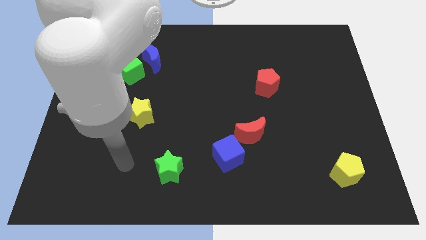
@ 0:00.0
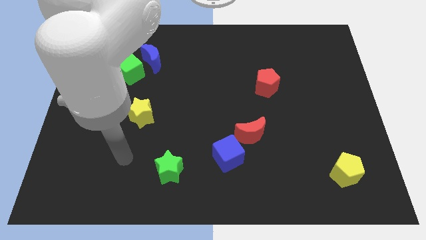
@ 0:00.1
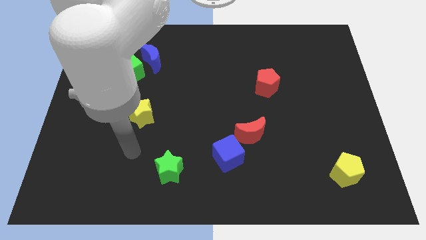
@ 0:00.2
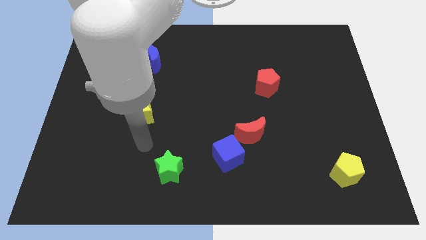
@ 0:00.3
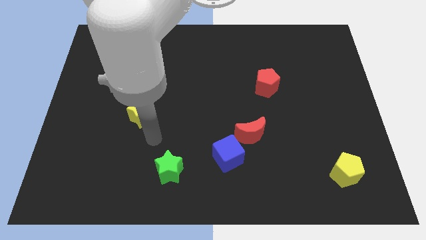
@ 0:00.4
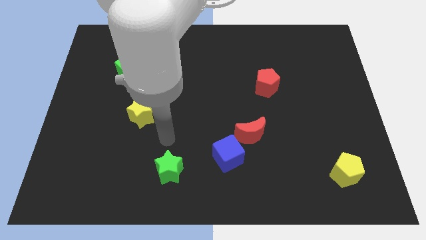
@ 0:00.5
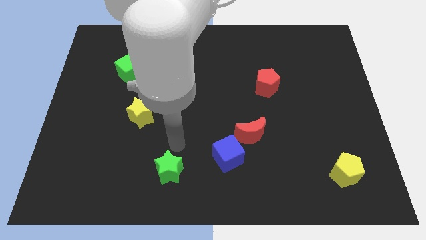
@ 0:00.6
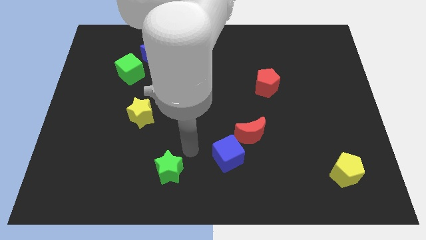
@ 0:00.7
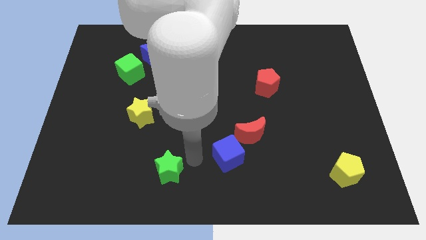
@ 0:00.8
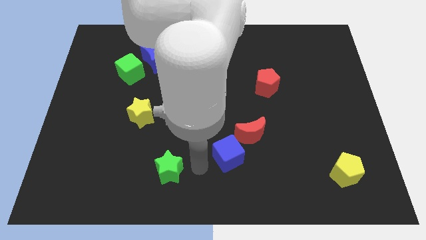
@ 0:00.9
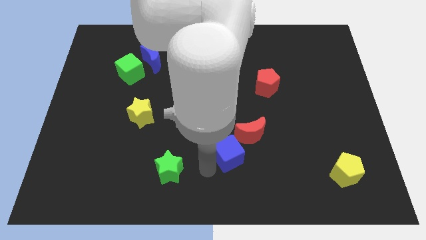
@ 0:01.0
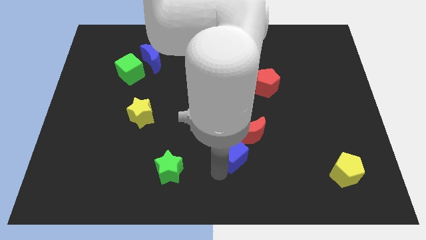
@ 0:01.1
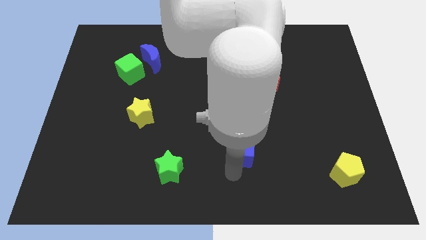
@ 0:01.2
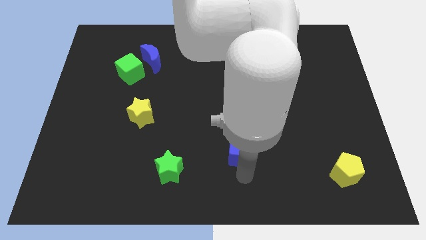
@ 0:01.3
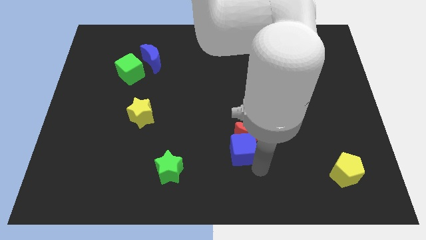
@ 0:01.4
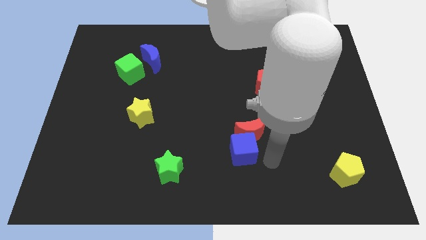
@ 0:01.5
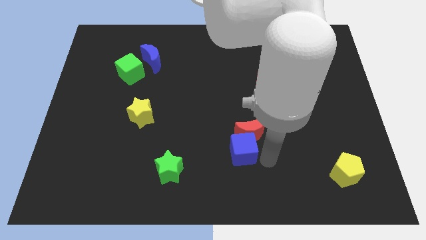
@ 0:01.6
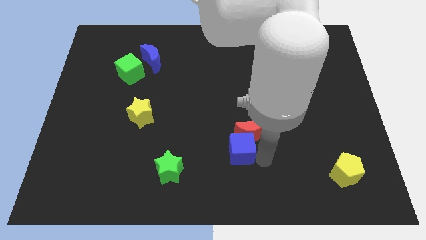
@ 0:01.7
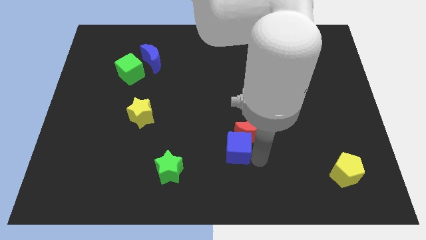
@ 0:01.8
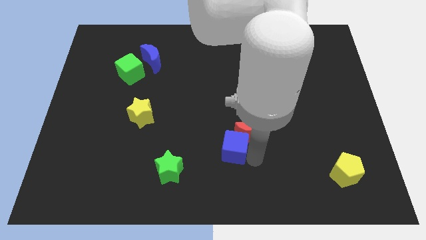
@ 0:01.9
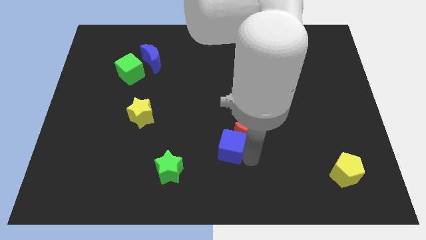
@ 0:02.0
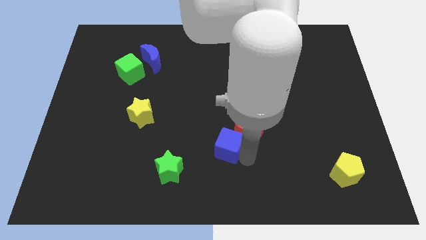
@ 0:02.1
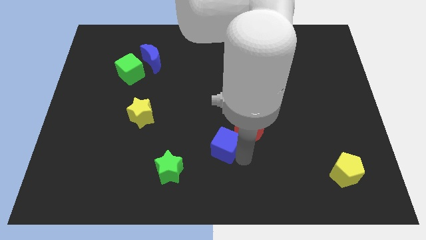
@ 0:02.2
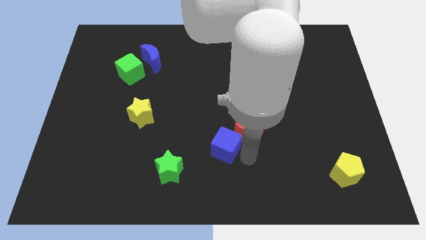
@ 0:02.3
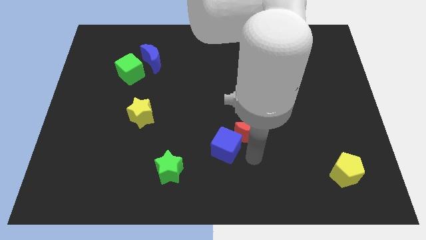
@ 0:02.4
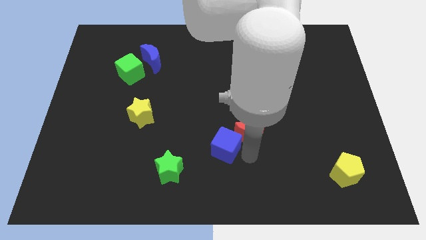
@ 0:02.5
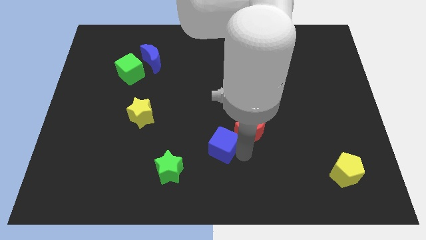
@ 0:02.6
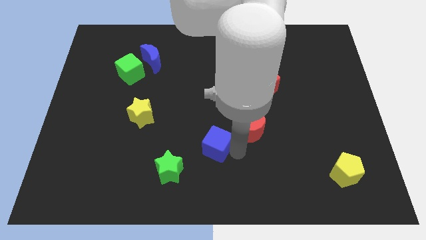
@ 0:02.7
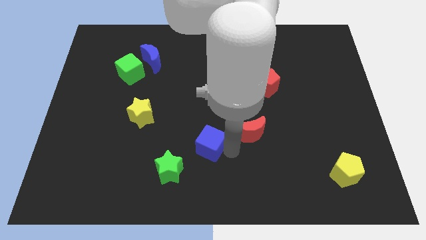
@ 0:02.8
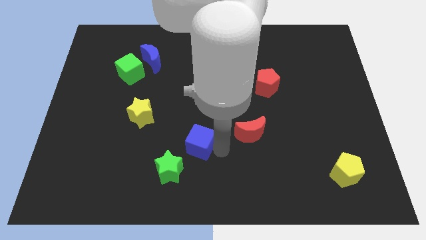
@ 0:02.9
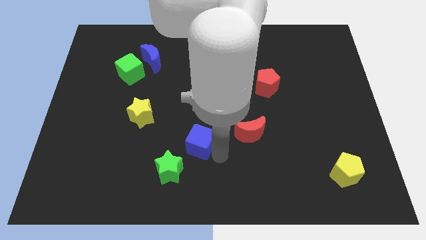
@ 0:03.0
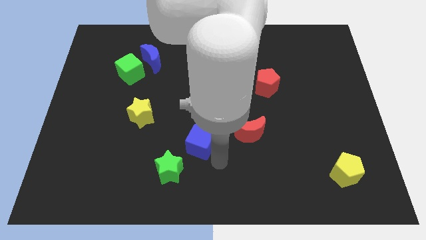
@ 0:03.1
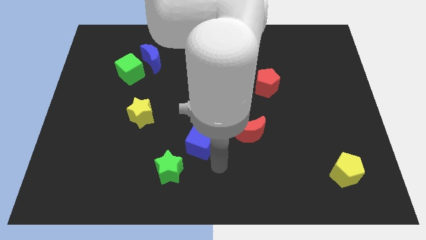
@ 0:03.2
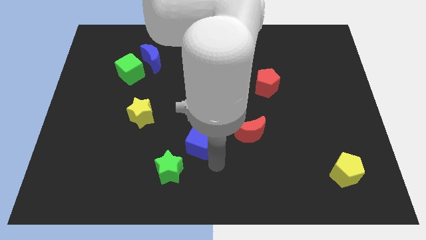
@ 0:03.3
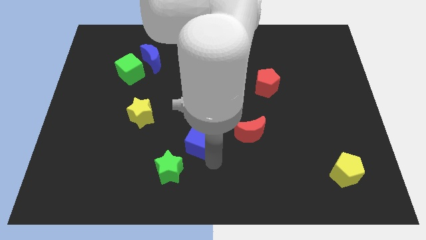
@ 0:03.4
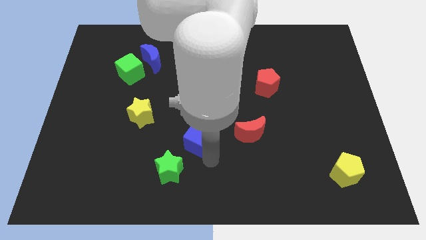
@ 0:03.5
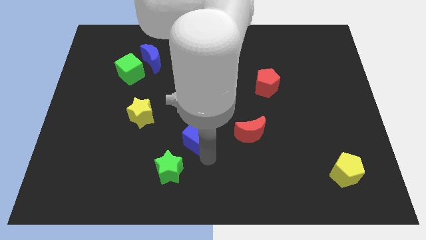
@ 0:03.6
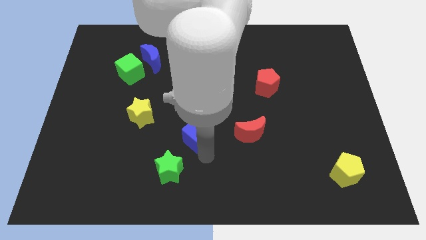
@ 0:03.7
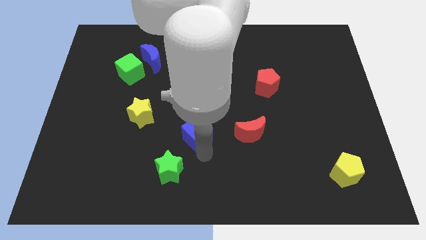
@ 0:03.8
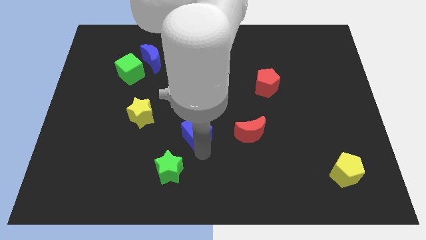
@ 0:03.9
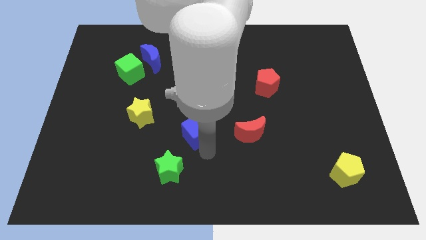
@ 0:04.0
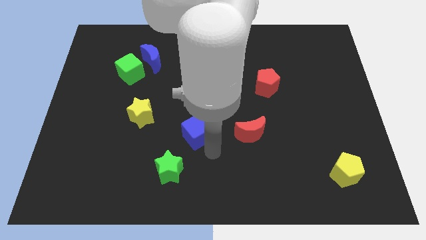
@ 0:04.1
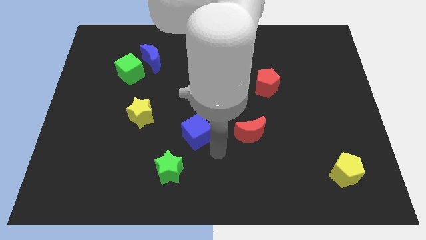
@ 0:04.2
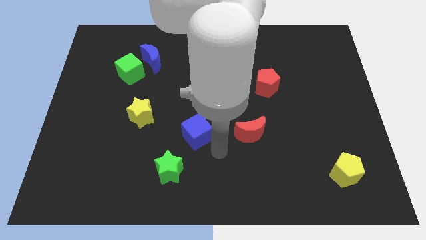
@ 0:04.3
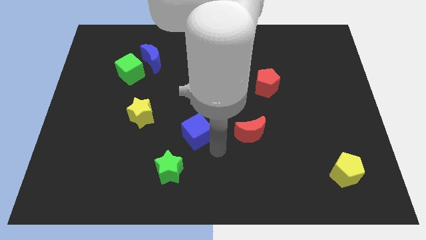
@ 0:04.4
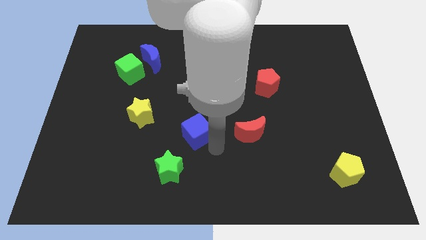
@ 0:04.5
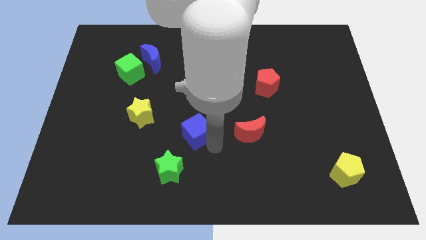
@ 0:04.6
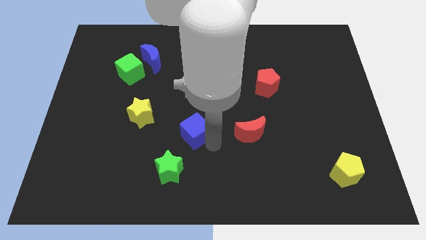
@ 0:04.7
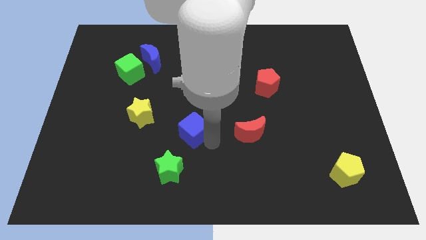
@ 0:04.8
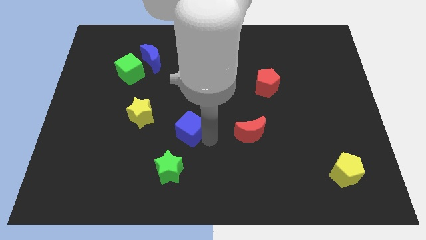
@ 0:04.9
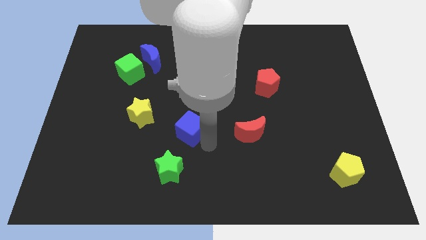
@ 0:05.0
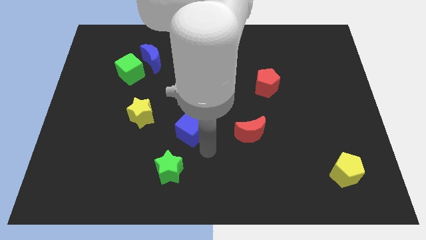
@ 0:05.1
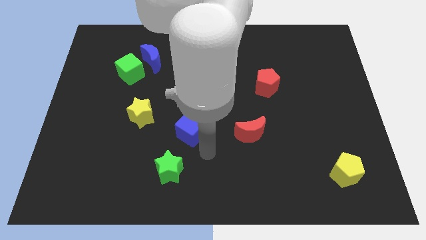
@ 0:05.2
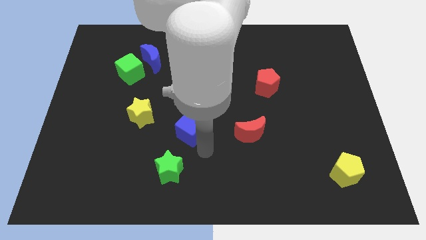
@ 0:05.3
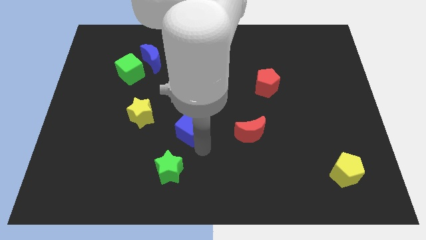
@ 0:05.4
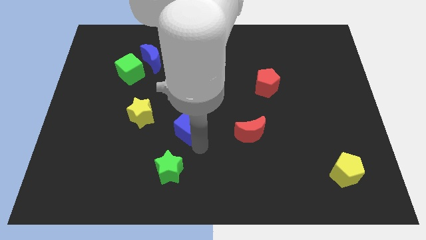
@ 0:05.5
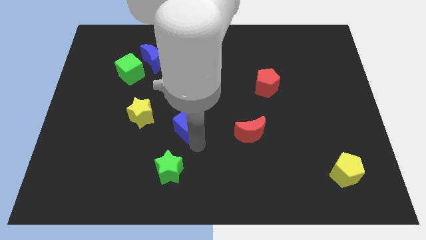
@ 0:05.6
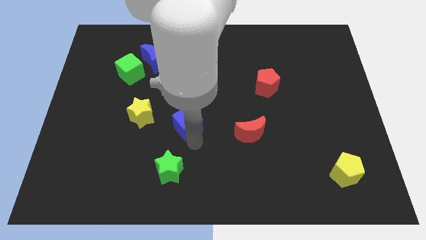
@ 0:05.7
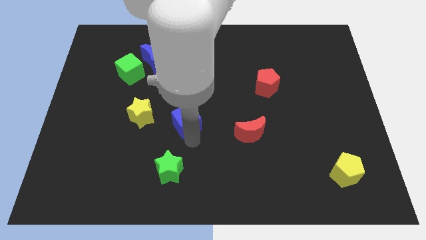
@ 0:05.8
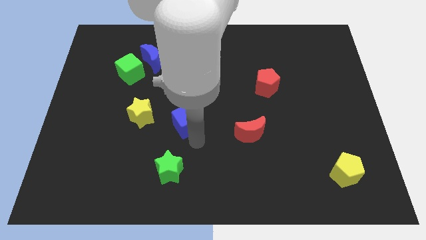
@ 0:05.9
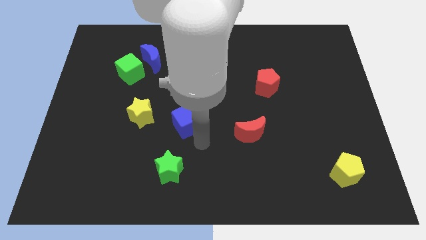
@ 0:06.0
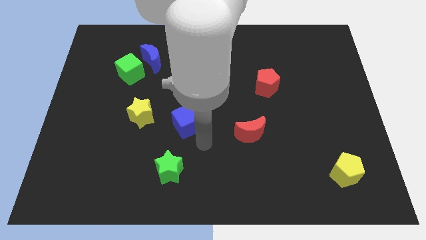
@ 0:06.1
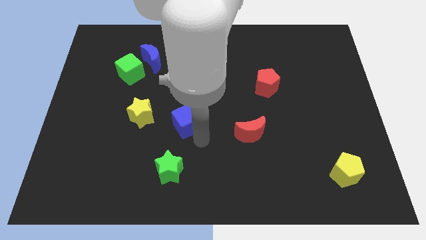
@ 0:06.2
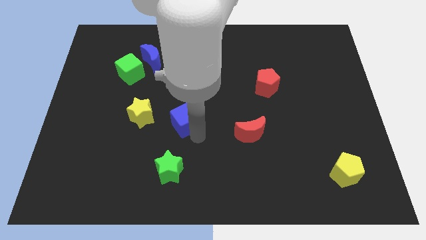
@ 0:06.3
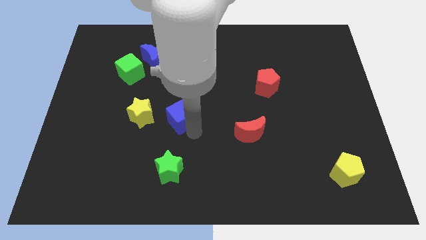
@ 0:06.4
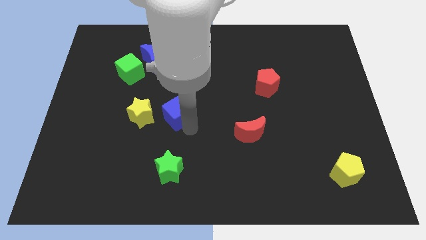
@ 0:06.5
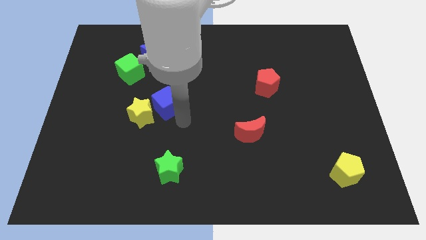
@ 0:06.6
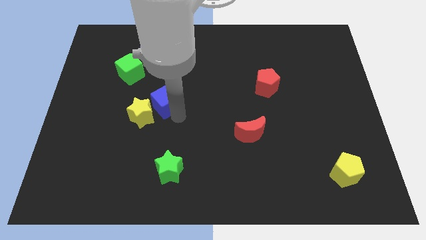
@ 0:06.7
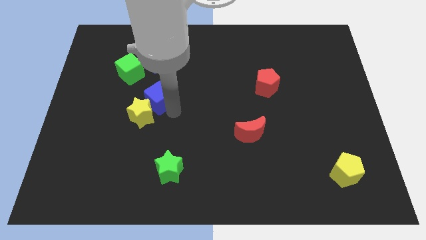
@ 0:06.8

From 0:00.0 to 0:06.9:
push the blue cube to the bottom right side of the green cube
